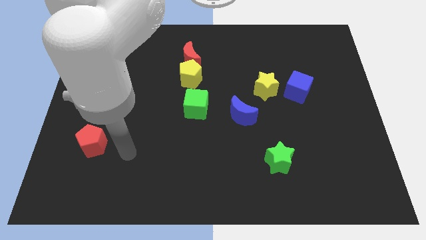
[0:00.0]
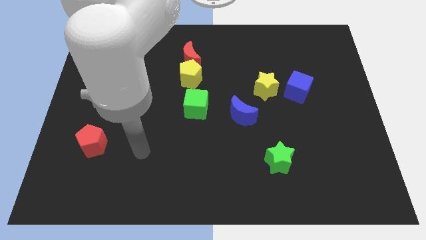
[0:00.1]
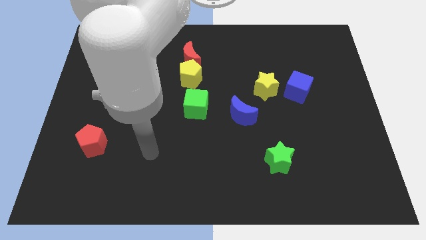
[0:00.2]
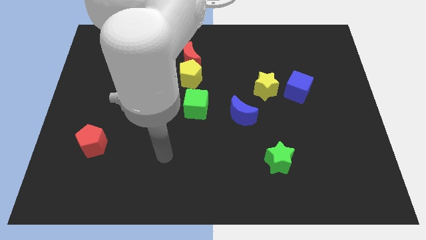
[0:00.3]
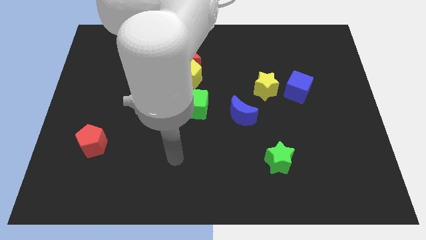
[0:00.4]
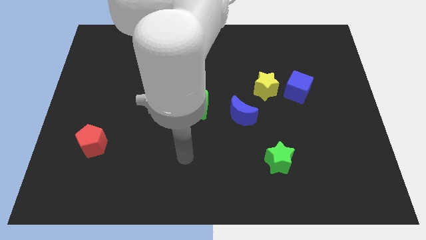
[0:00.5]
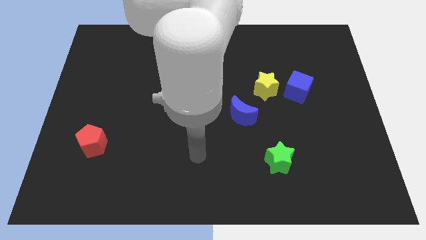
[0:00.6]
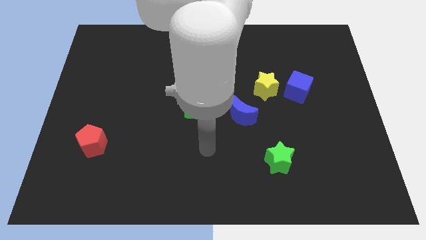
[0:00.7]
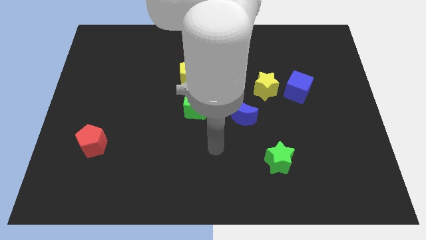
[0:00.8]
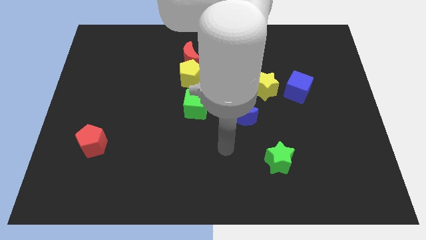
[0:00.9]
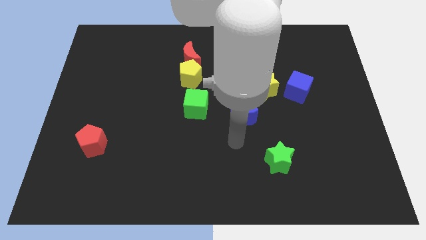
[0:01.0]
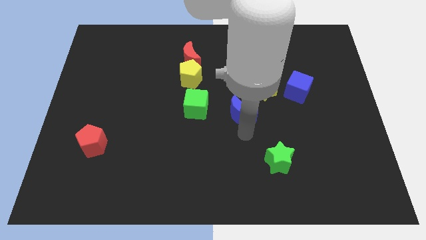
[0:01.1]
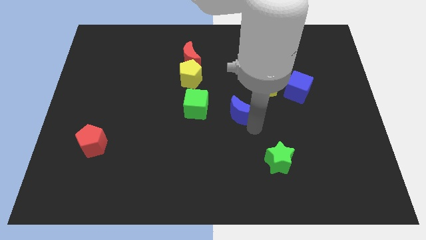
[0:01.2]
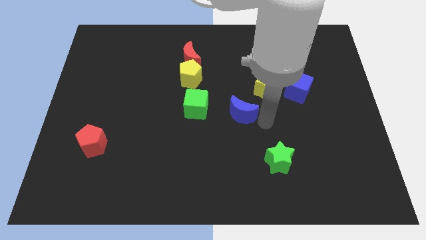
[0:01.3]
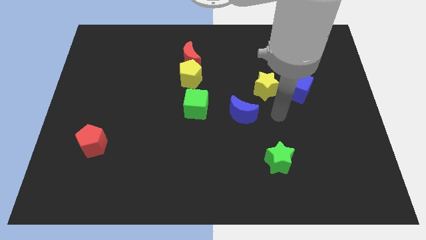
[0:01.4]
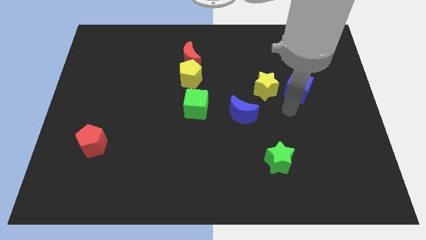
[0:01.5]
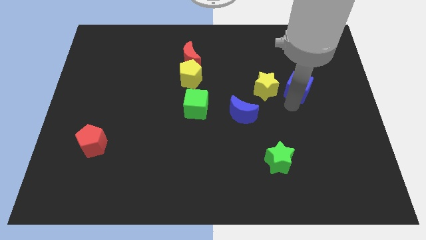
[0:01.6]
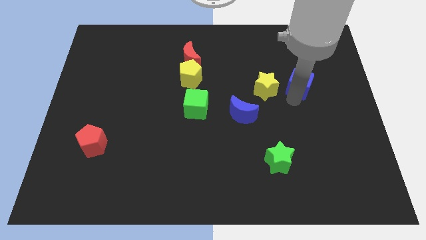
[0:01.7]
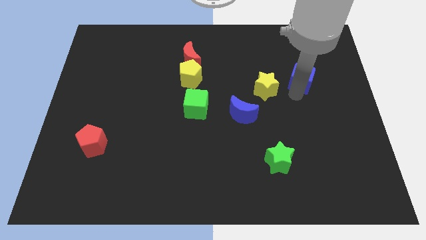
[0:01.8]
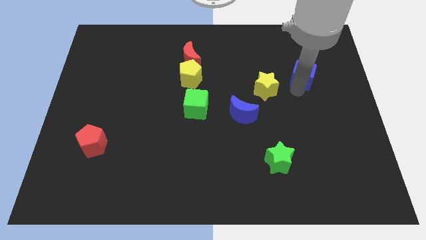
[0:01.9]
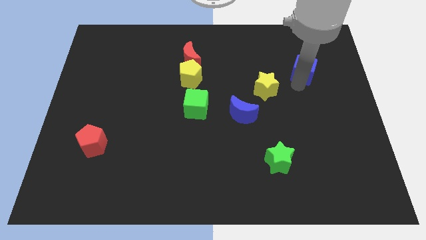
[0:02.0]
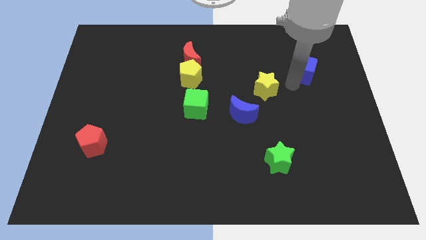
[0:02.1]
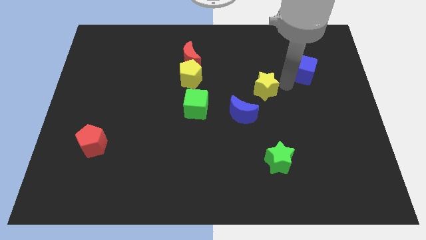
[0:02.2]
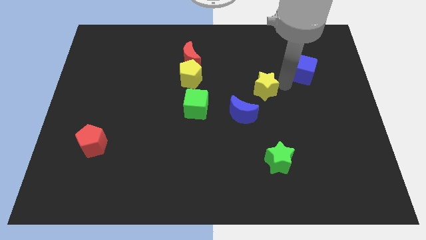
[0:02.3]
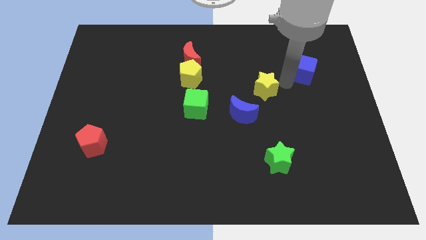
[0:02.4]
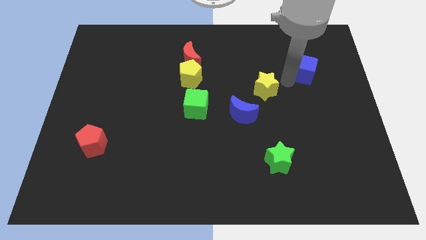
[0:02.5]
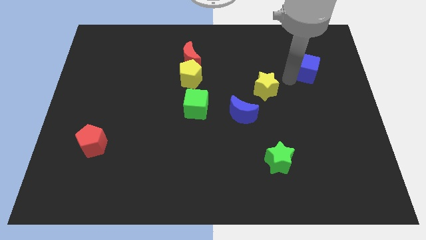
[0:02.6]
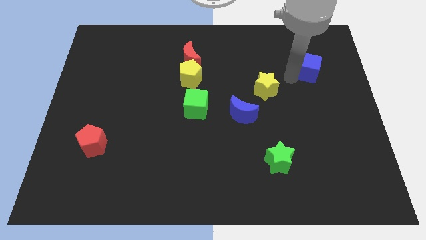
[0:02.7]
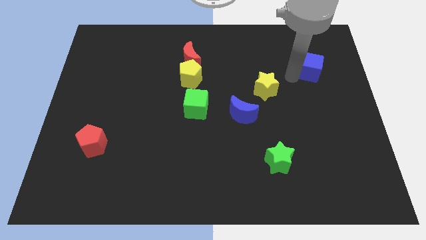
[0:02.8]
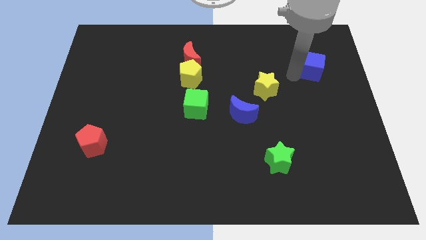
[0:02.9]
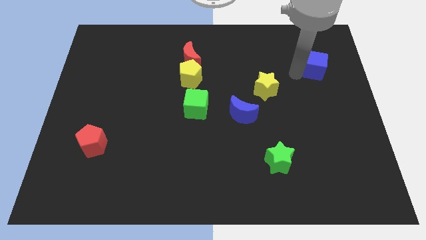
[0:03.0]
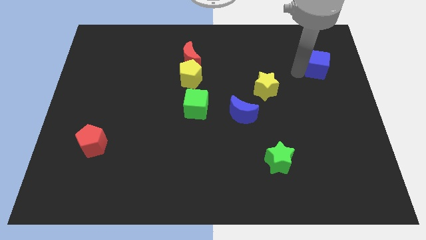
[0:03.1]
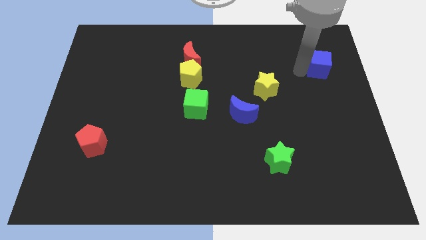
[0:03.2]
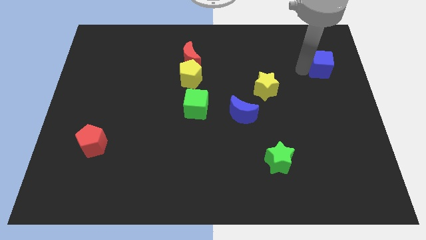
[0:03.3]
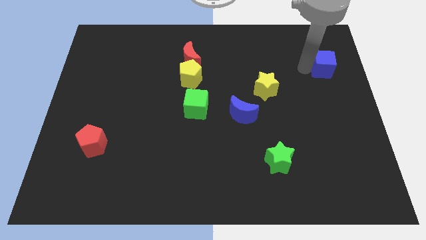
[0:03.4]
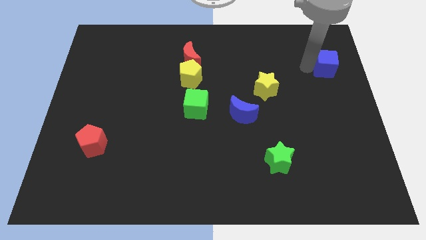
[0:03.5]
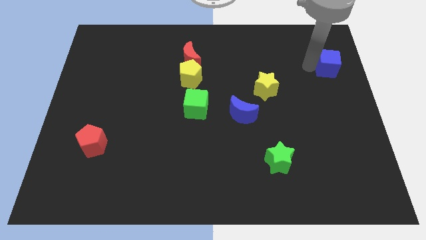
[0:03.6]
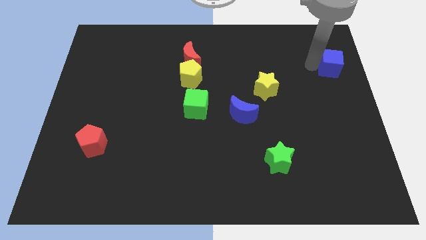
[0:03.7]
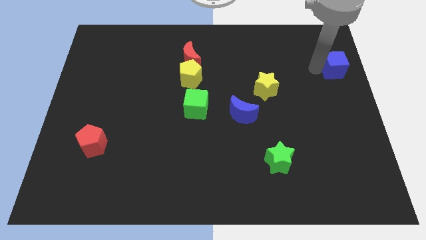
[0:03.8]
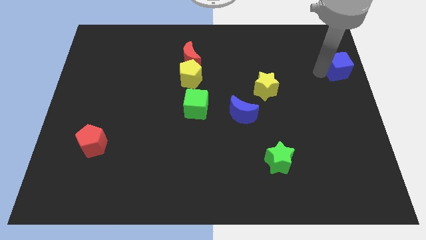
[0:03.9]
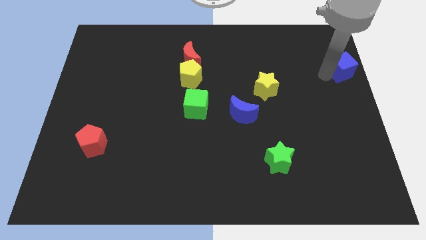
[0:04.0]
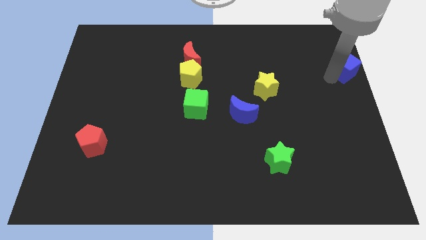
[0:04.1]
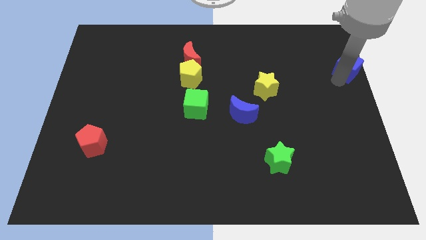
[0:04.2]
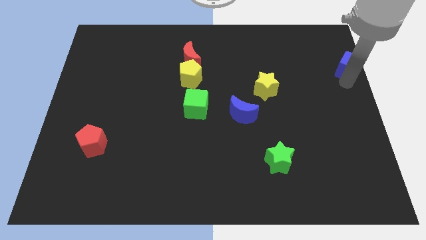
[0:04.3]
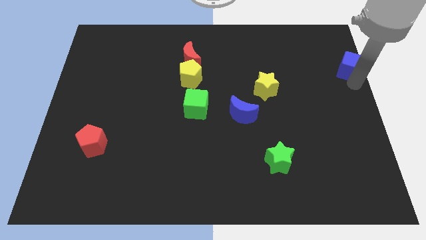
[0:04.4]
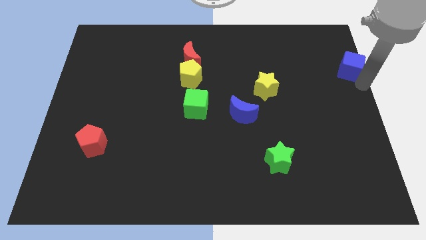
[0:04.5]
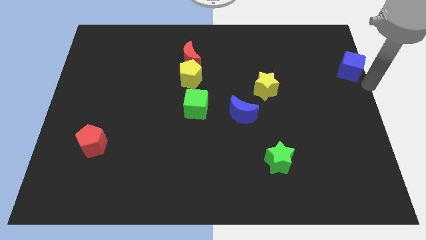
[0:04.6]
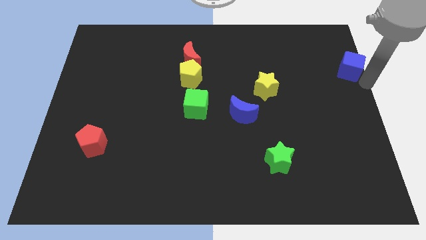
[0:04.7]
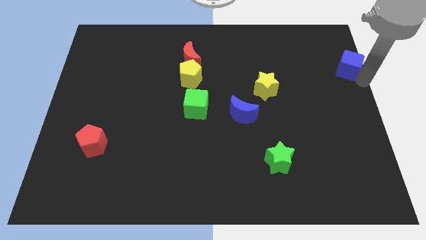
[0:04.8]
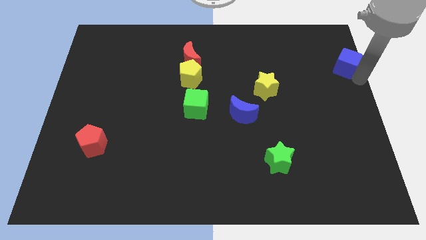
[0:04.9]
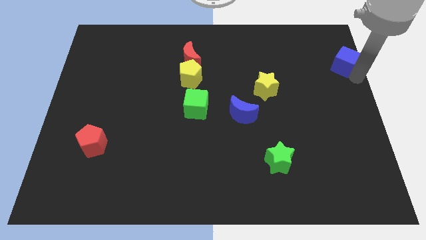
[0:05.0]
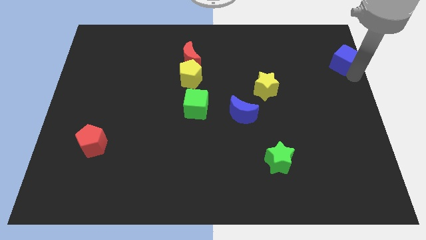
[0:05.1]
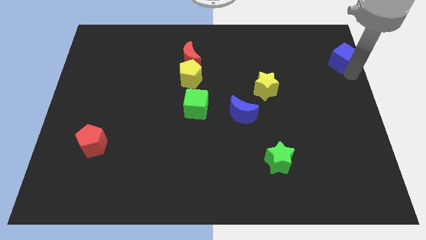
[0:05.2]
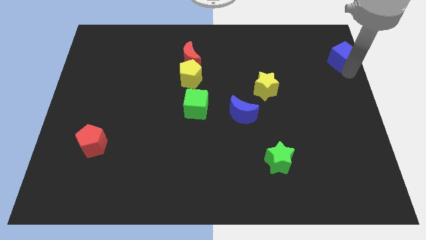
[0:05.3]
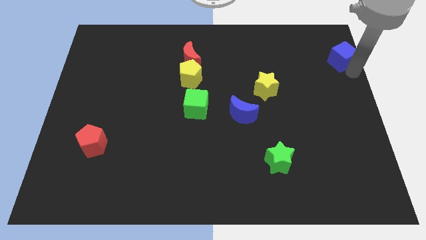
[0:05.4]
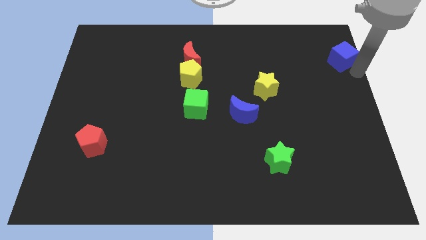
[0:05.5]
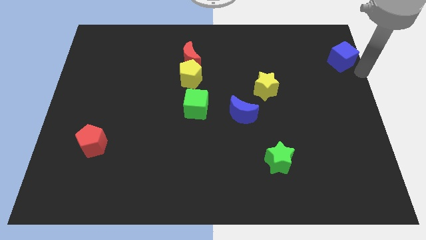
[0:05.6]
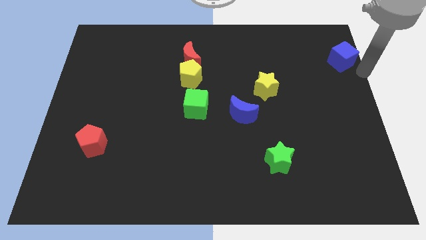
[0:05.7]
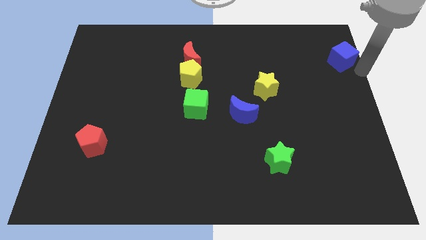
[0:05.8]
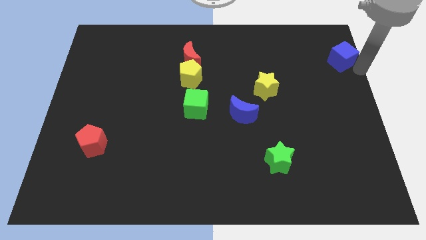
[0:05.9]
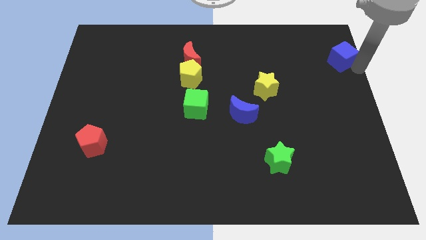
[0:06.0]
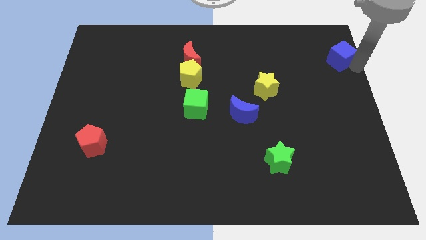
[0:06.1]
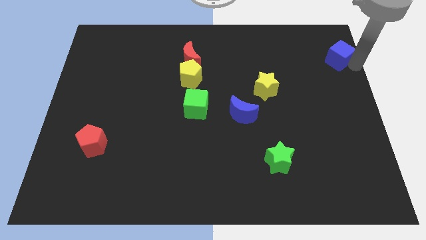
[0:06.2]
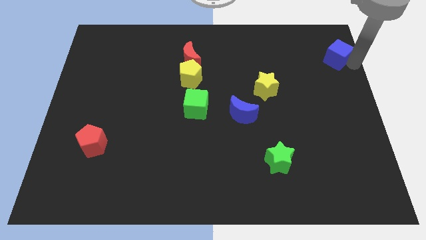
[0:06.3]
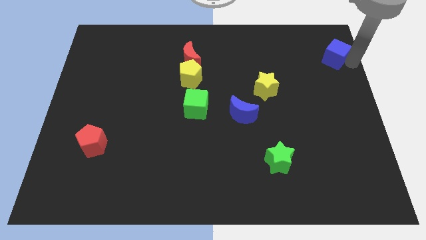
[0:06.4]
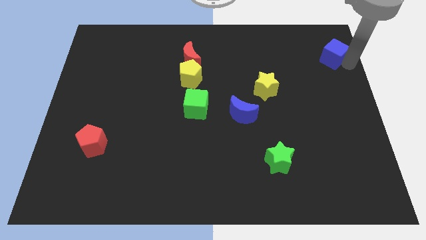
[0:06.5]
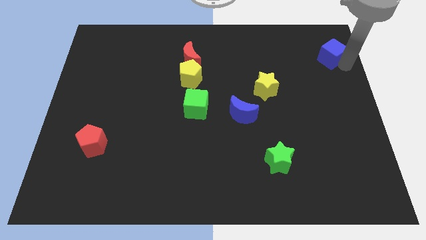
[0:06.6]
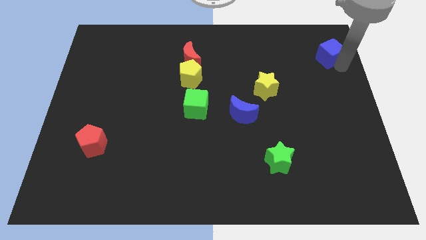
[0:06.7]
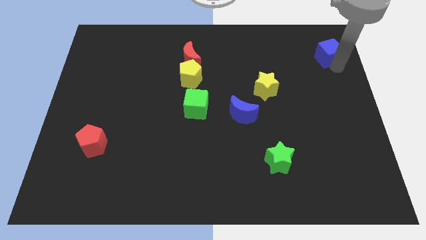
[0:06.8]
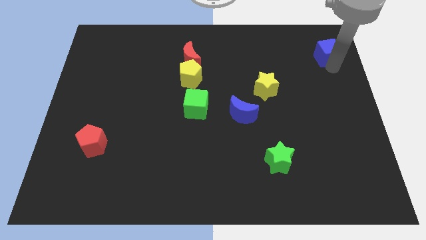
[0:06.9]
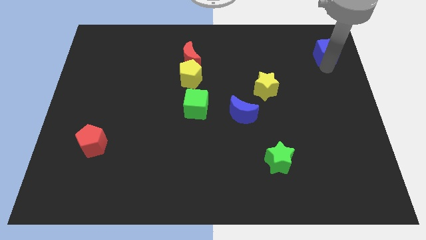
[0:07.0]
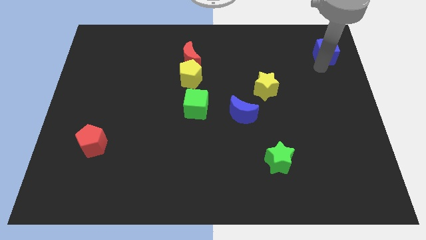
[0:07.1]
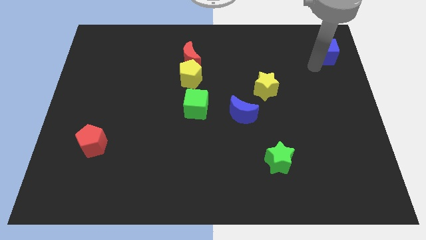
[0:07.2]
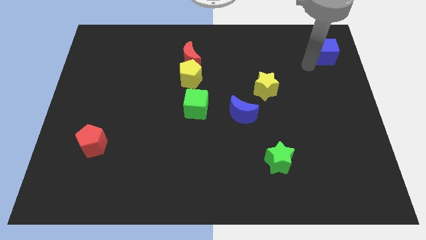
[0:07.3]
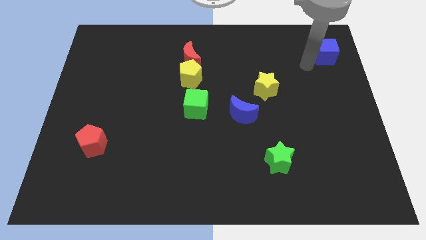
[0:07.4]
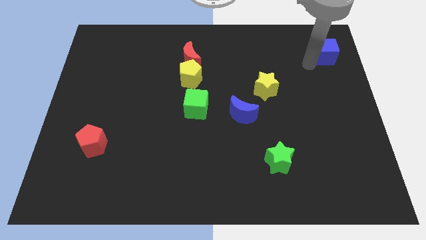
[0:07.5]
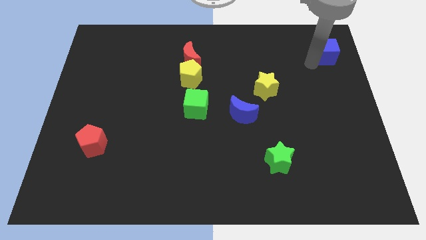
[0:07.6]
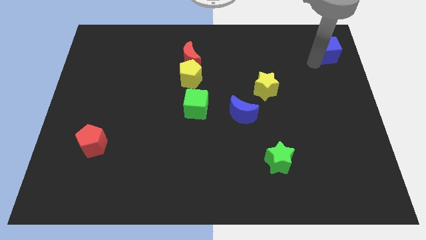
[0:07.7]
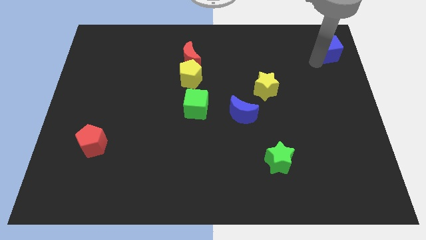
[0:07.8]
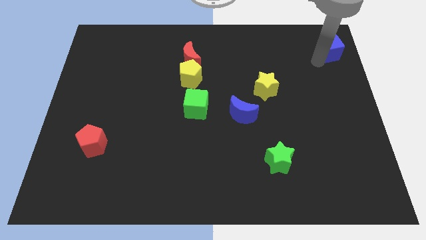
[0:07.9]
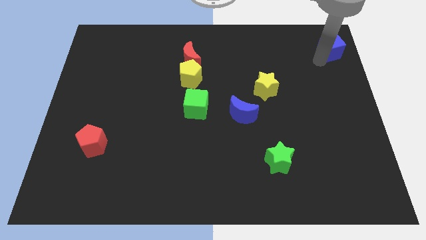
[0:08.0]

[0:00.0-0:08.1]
put the blue cube to the upper right corner
